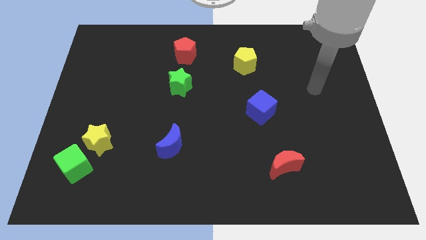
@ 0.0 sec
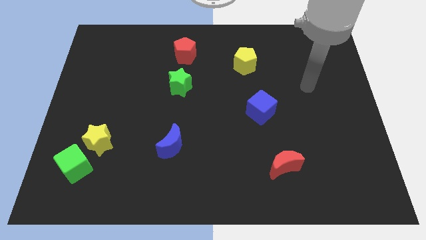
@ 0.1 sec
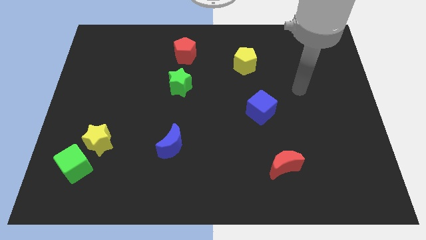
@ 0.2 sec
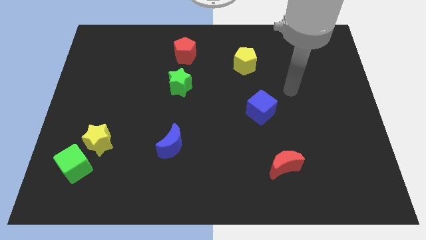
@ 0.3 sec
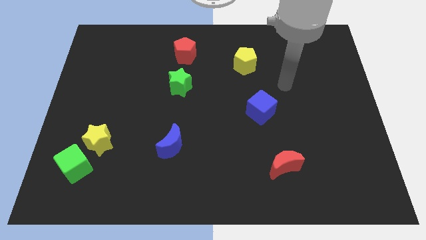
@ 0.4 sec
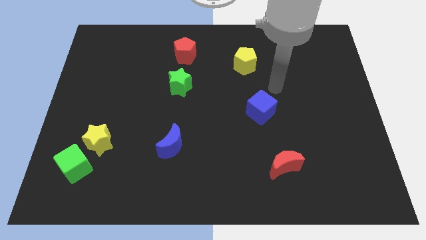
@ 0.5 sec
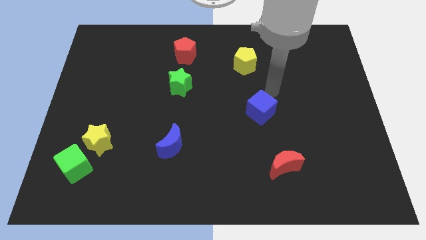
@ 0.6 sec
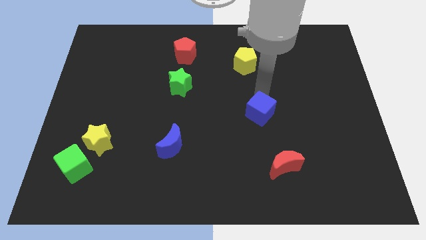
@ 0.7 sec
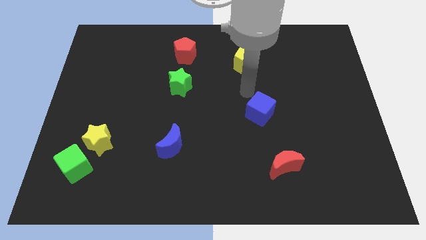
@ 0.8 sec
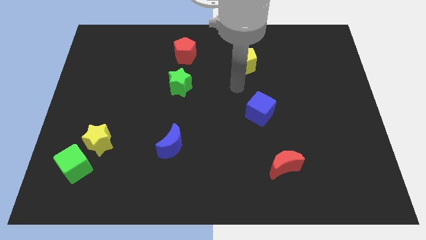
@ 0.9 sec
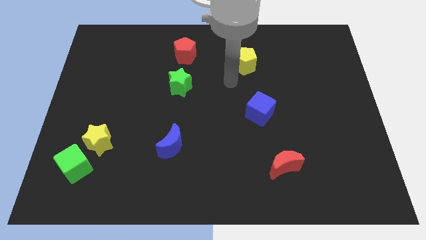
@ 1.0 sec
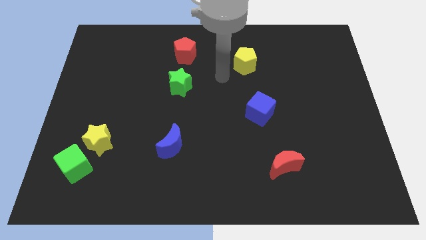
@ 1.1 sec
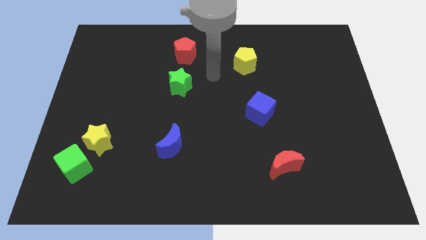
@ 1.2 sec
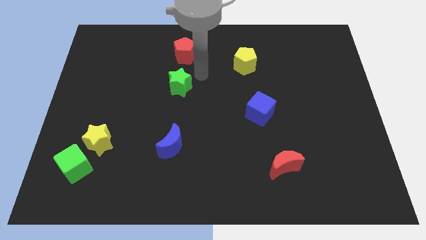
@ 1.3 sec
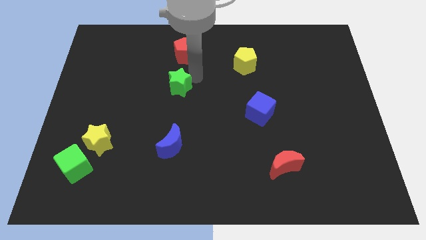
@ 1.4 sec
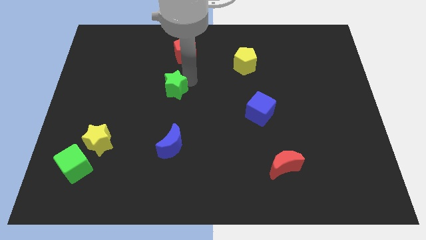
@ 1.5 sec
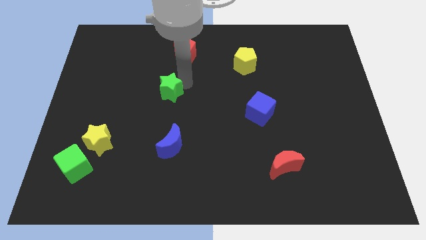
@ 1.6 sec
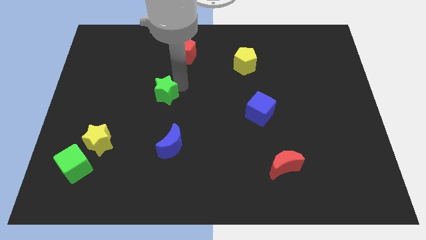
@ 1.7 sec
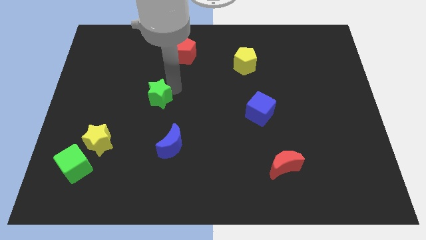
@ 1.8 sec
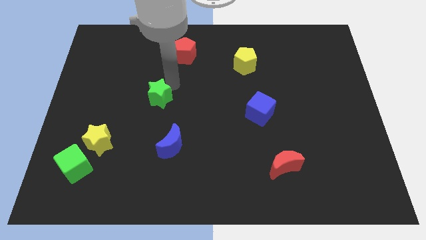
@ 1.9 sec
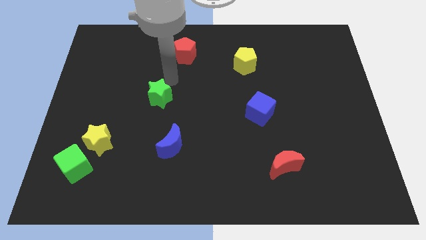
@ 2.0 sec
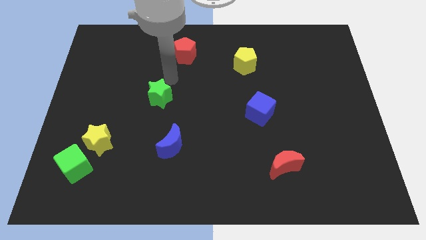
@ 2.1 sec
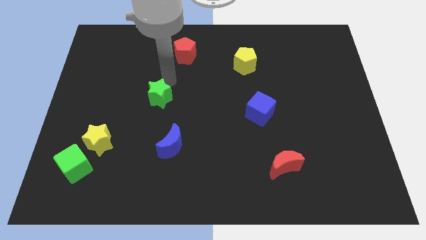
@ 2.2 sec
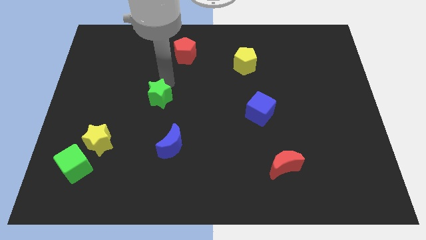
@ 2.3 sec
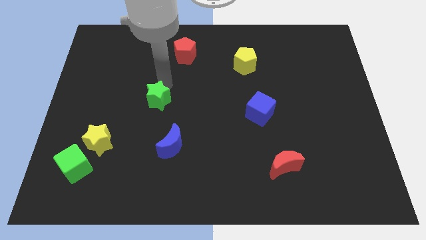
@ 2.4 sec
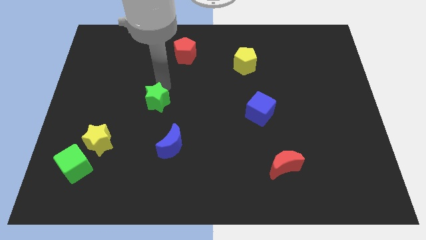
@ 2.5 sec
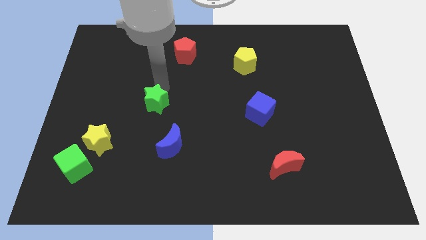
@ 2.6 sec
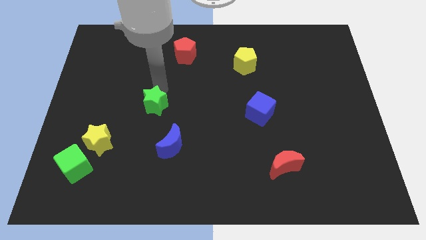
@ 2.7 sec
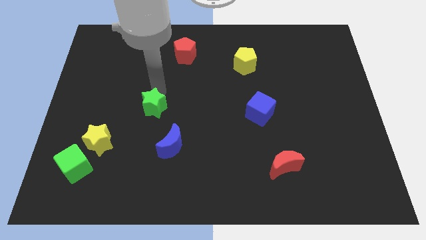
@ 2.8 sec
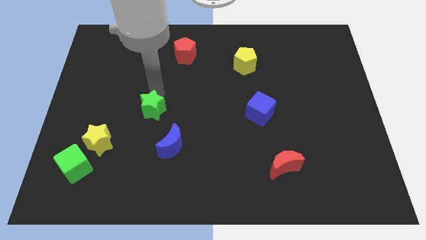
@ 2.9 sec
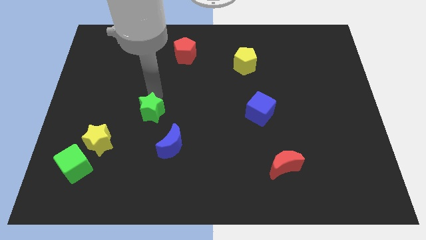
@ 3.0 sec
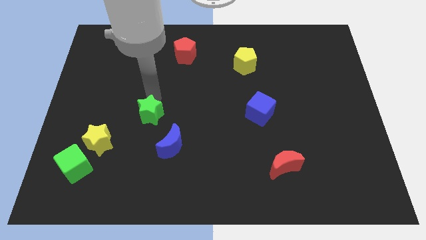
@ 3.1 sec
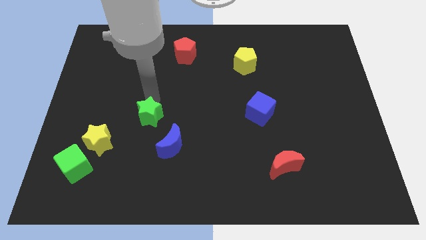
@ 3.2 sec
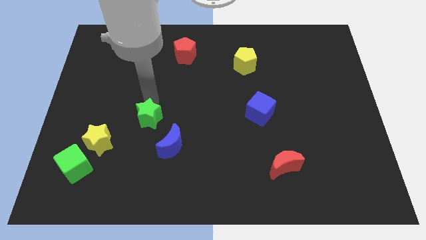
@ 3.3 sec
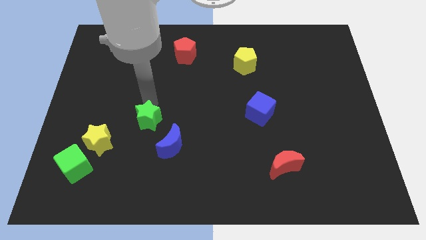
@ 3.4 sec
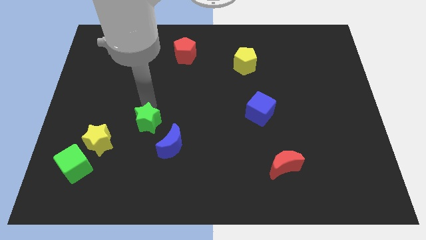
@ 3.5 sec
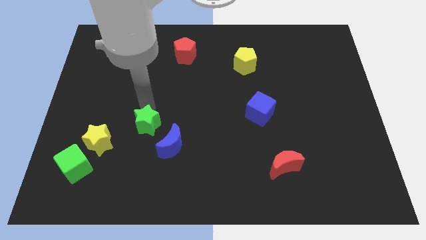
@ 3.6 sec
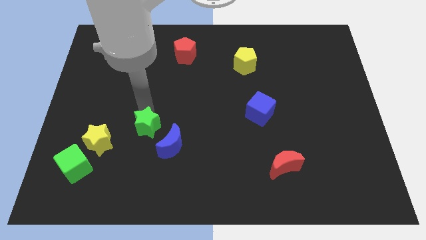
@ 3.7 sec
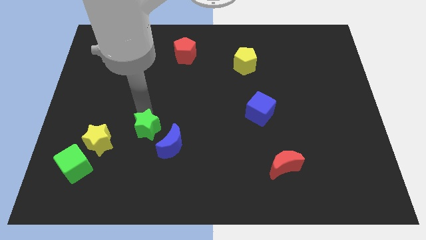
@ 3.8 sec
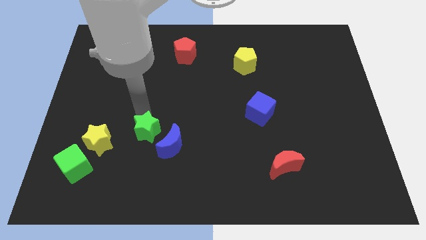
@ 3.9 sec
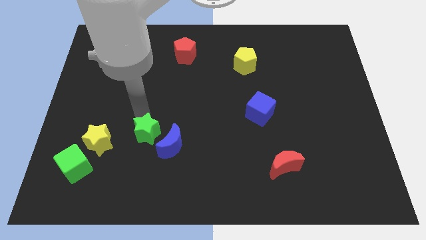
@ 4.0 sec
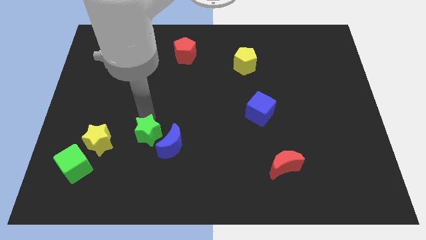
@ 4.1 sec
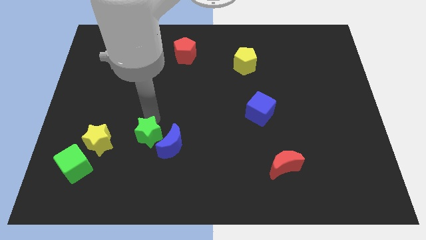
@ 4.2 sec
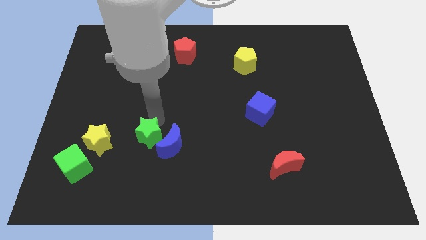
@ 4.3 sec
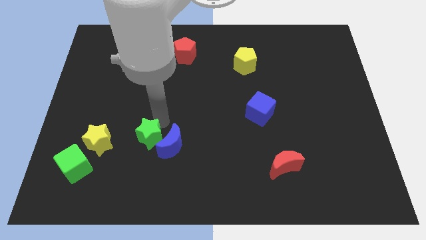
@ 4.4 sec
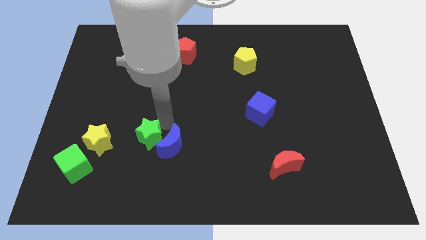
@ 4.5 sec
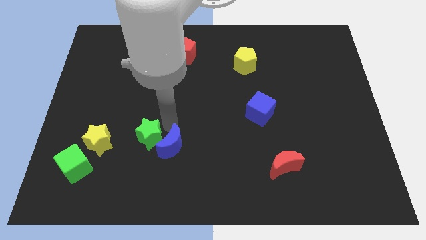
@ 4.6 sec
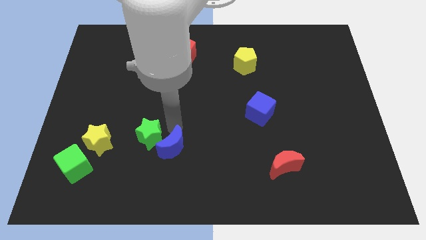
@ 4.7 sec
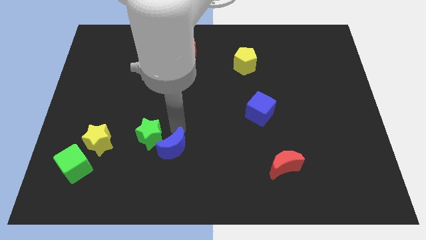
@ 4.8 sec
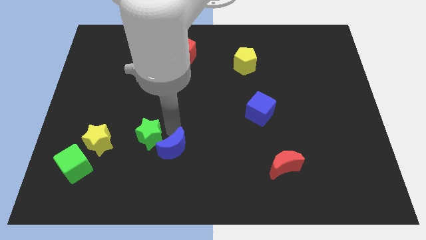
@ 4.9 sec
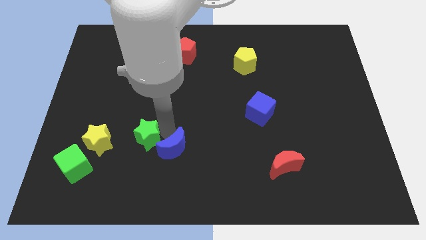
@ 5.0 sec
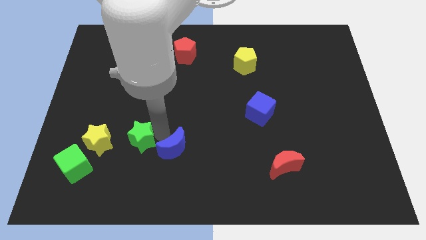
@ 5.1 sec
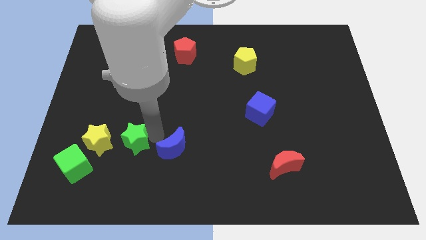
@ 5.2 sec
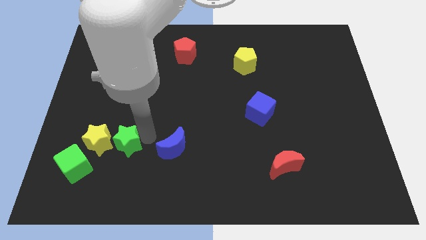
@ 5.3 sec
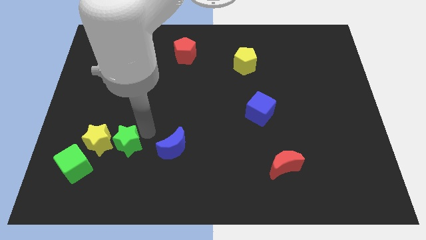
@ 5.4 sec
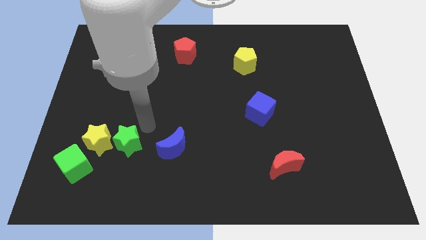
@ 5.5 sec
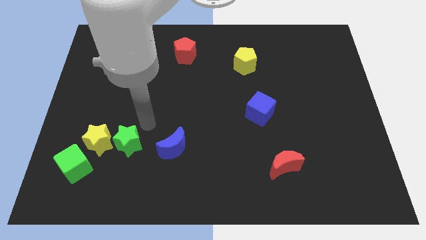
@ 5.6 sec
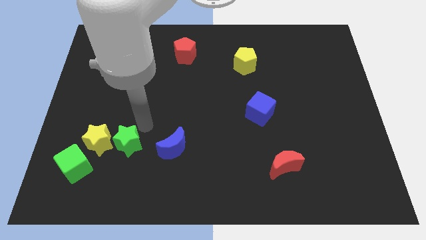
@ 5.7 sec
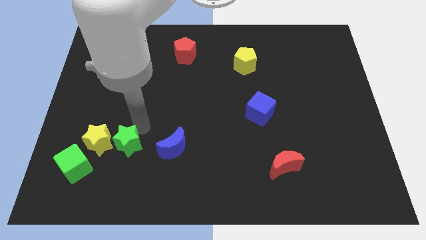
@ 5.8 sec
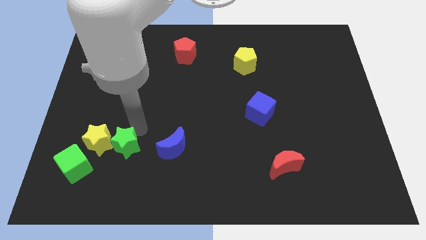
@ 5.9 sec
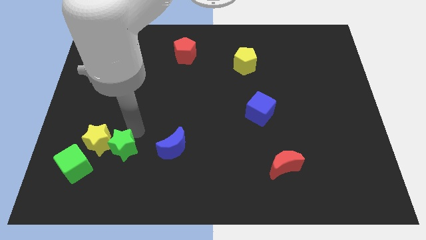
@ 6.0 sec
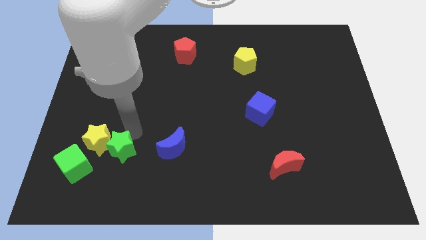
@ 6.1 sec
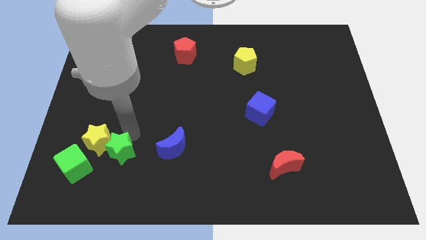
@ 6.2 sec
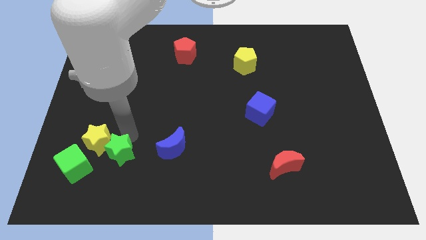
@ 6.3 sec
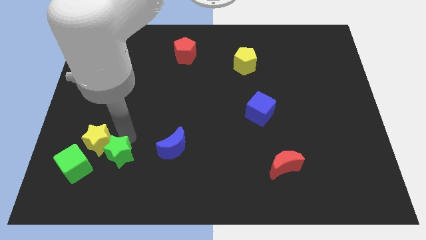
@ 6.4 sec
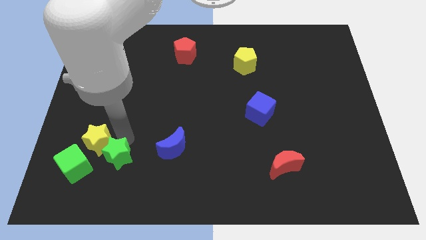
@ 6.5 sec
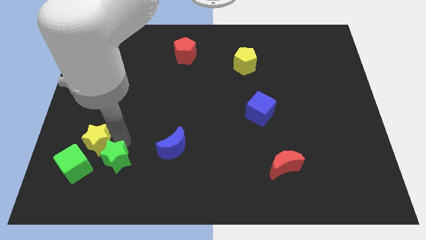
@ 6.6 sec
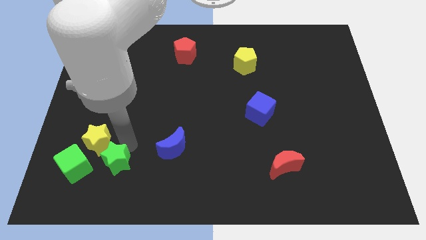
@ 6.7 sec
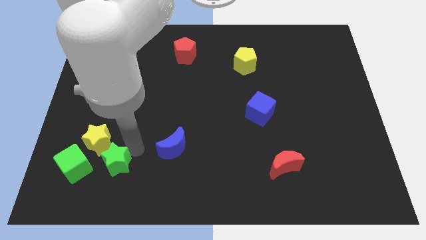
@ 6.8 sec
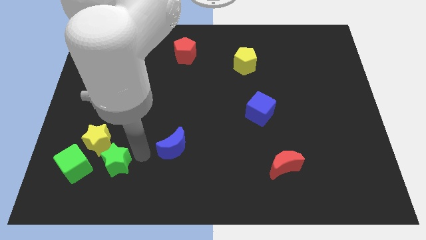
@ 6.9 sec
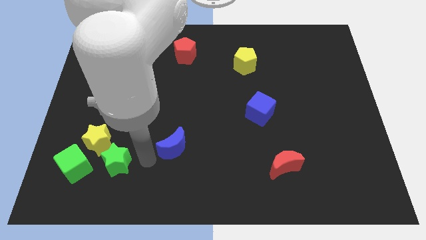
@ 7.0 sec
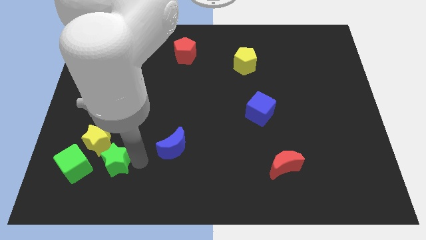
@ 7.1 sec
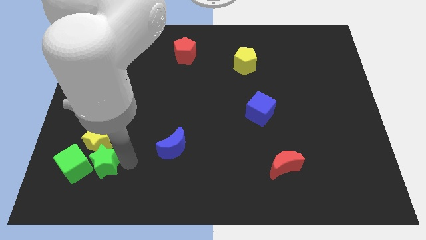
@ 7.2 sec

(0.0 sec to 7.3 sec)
put the green star to the green cube
